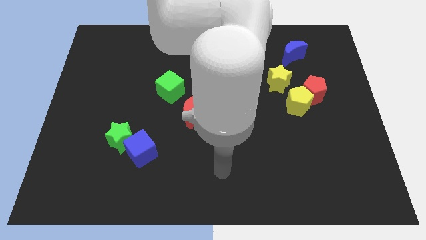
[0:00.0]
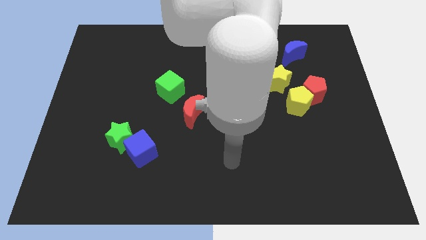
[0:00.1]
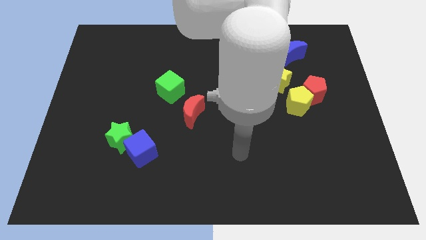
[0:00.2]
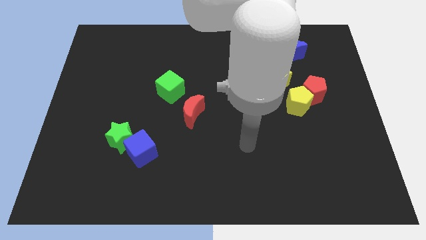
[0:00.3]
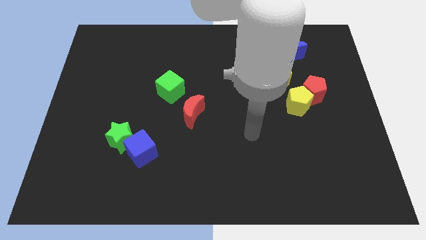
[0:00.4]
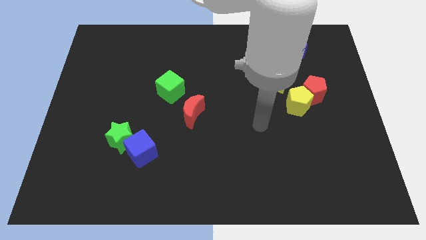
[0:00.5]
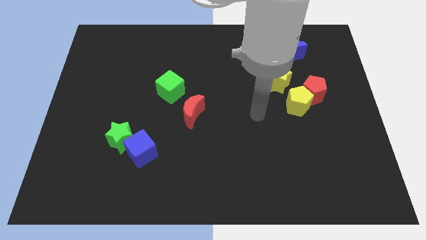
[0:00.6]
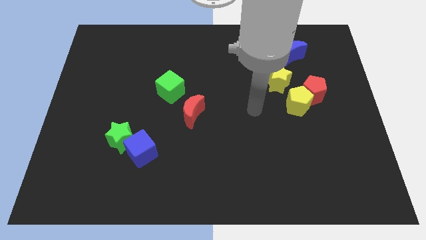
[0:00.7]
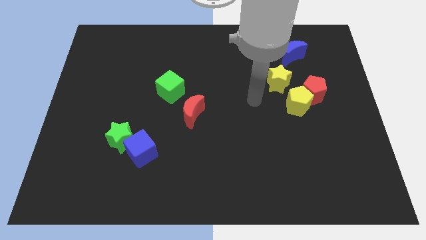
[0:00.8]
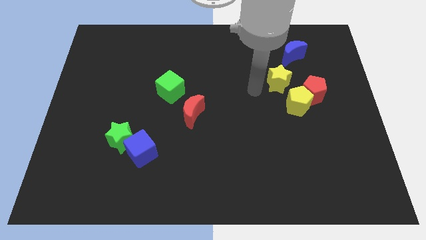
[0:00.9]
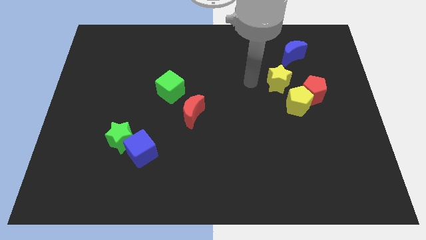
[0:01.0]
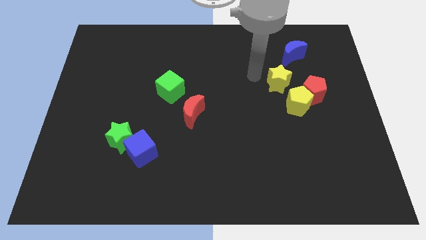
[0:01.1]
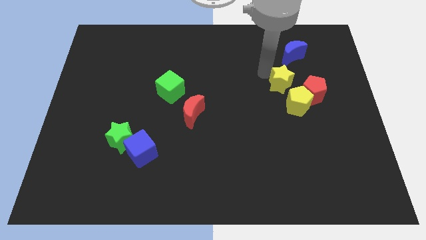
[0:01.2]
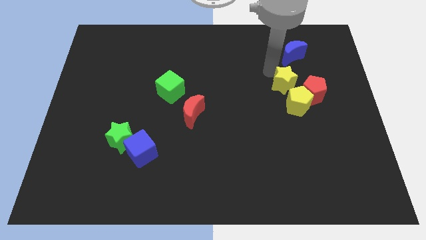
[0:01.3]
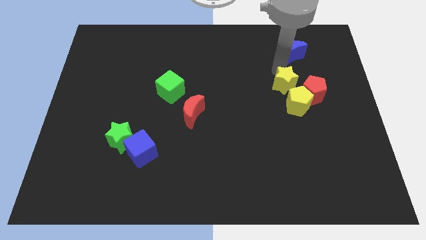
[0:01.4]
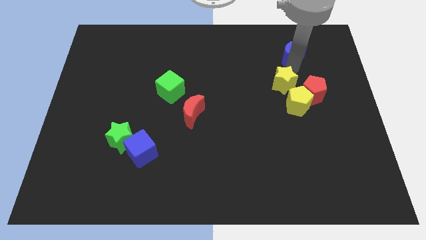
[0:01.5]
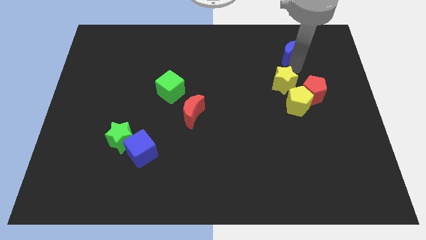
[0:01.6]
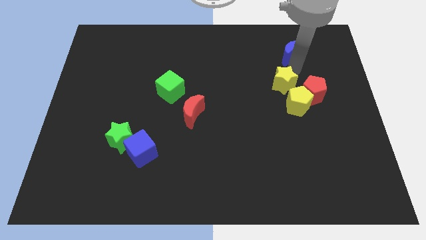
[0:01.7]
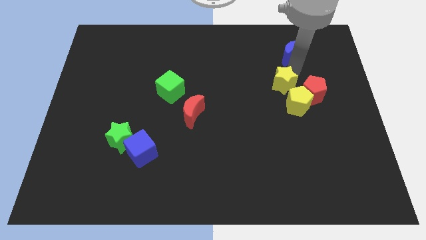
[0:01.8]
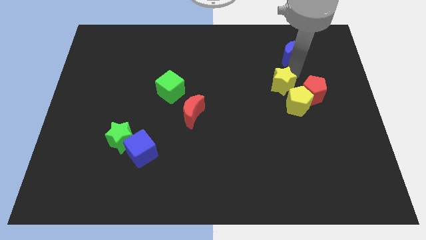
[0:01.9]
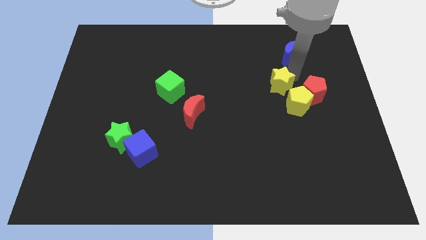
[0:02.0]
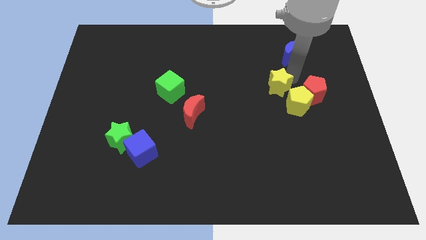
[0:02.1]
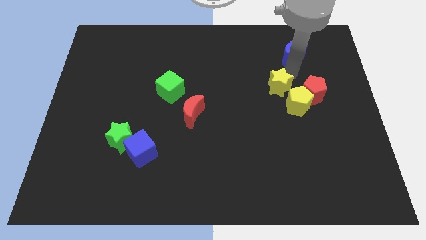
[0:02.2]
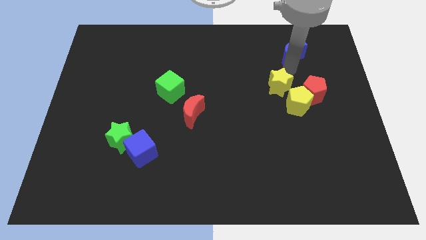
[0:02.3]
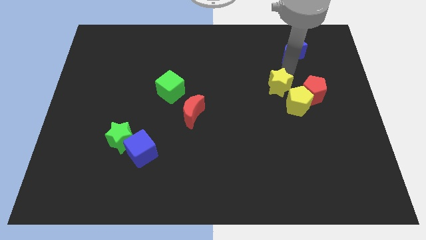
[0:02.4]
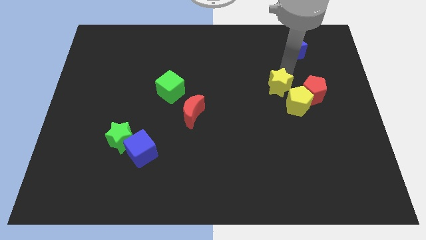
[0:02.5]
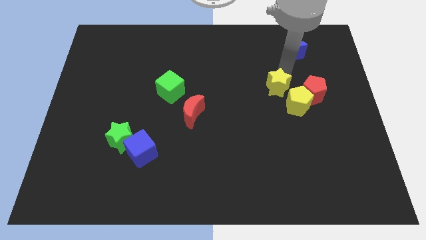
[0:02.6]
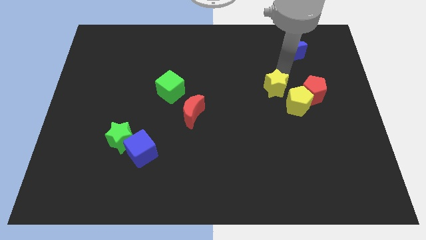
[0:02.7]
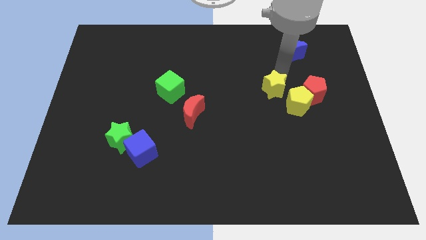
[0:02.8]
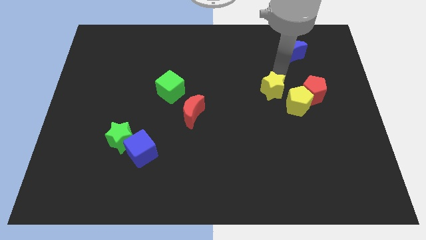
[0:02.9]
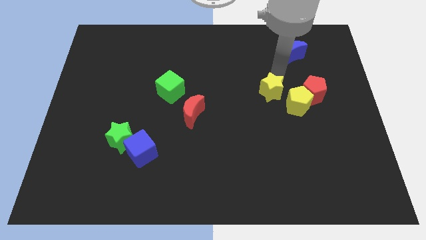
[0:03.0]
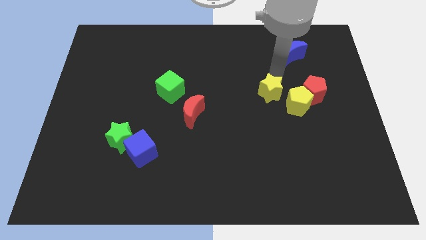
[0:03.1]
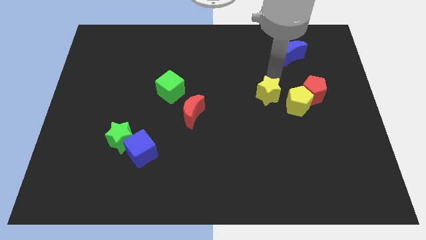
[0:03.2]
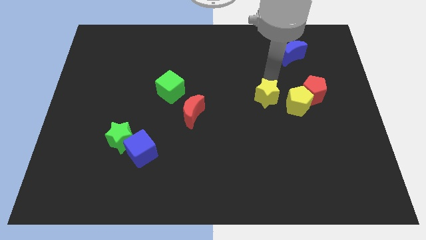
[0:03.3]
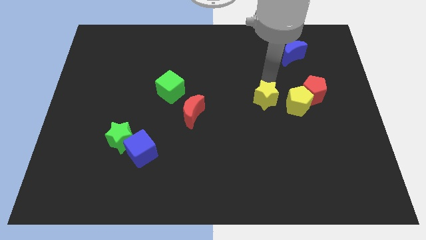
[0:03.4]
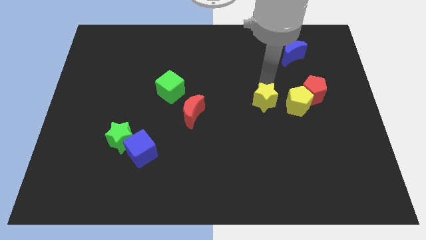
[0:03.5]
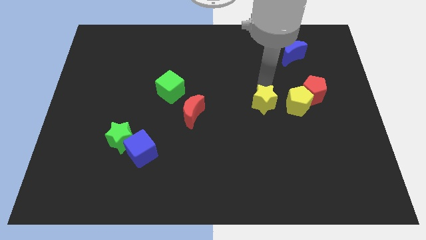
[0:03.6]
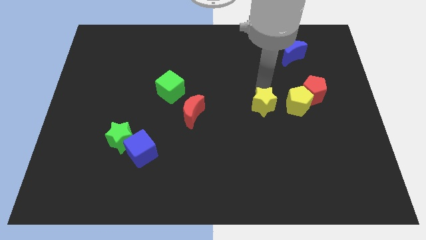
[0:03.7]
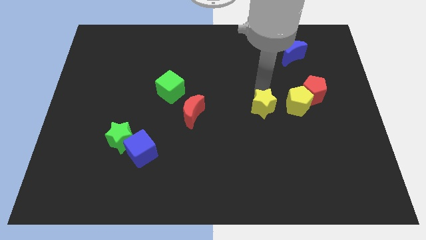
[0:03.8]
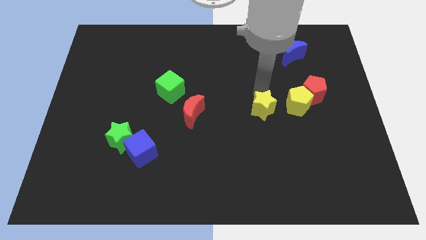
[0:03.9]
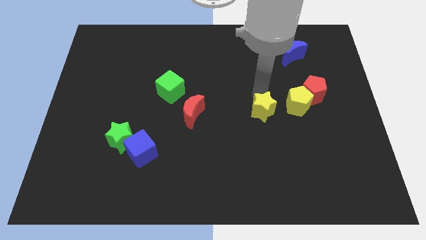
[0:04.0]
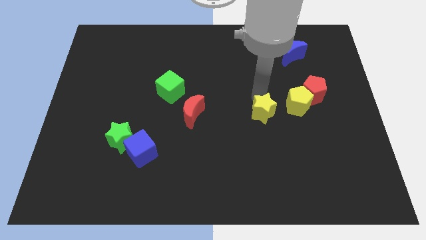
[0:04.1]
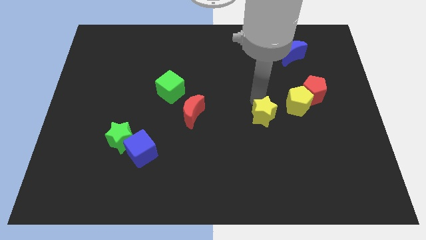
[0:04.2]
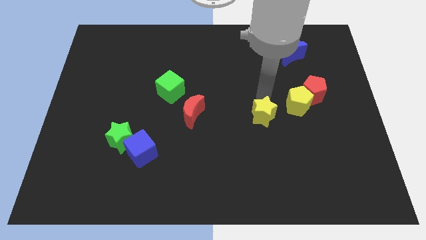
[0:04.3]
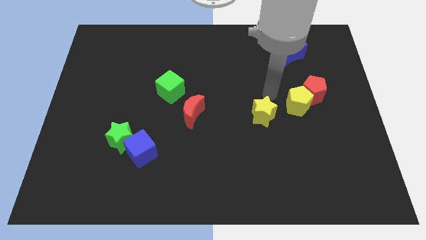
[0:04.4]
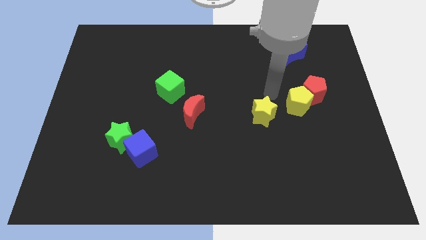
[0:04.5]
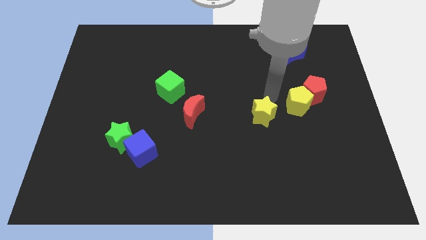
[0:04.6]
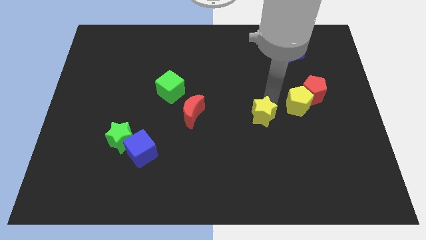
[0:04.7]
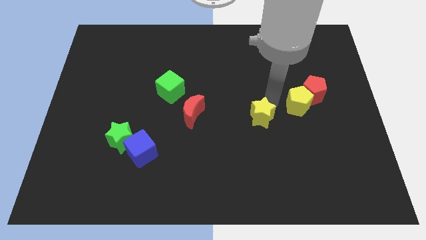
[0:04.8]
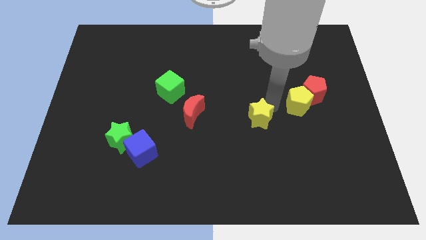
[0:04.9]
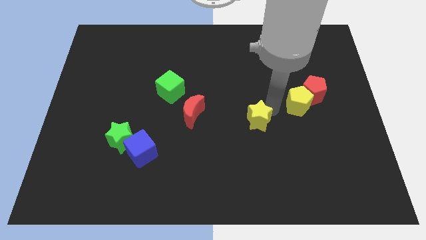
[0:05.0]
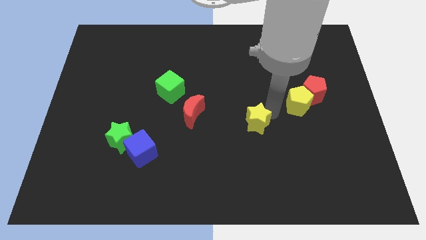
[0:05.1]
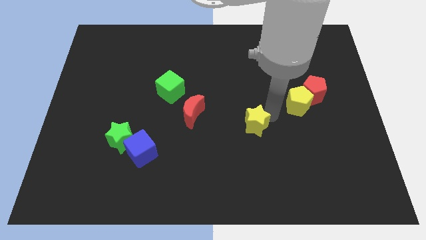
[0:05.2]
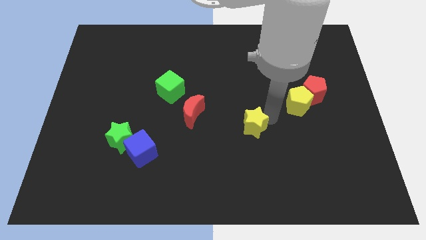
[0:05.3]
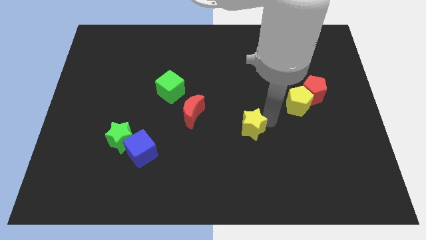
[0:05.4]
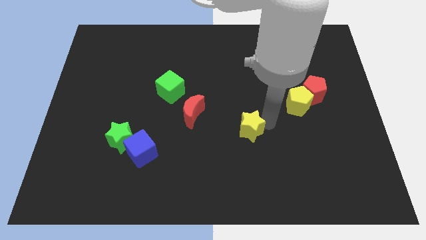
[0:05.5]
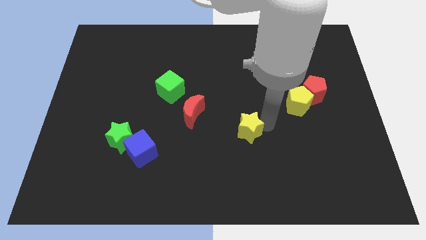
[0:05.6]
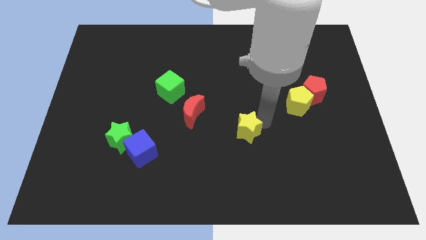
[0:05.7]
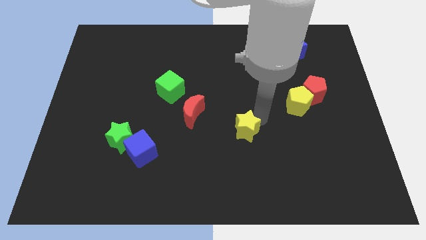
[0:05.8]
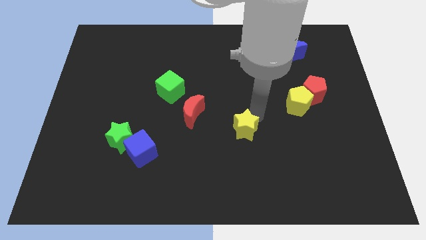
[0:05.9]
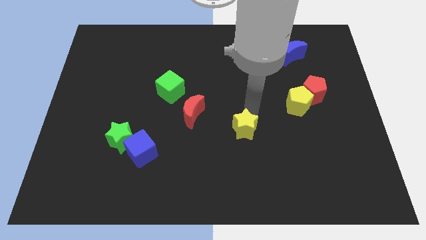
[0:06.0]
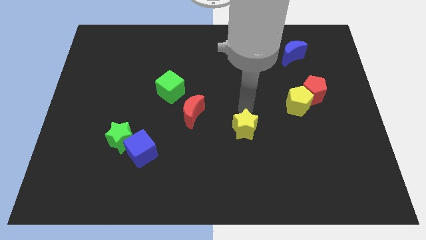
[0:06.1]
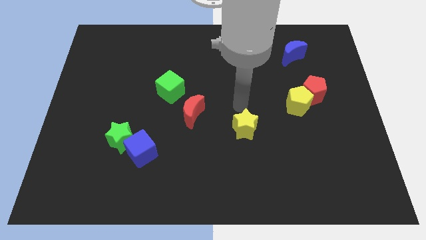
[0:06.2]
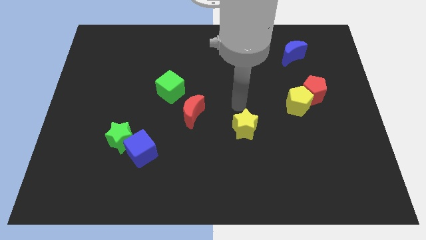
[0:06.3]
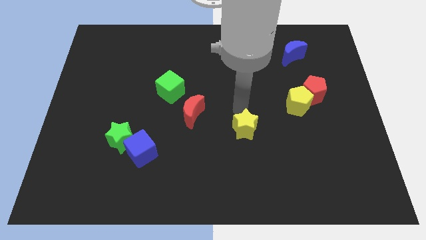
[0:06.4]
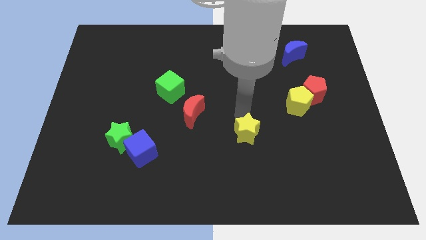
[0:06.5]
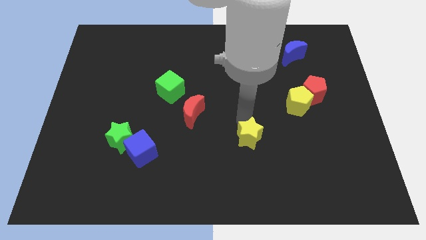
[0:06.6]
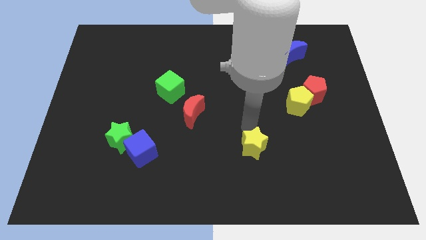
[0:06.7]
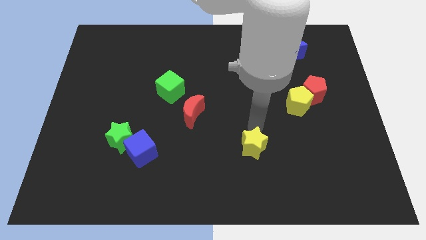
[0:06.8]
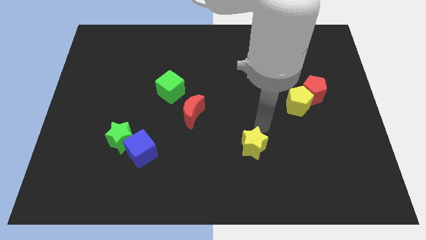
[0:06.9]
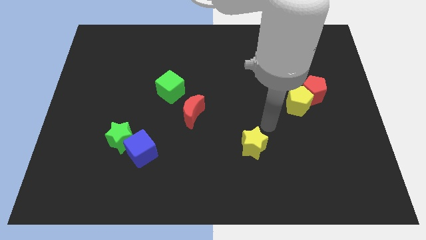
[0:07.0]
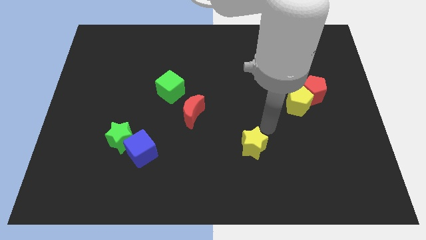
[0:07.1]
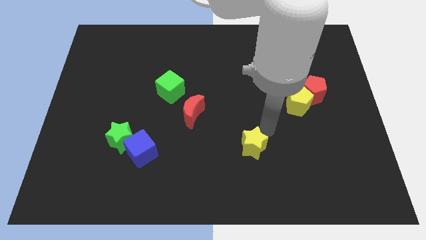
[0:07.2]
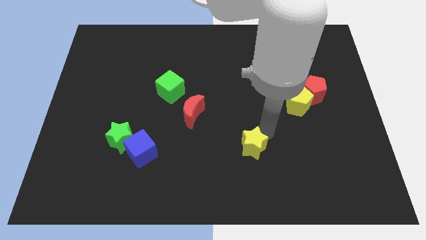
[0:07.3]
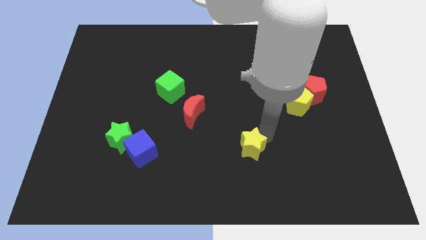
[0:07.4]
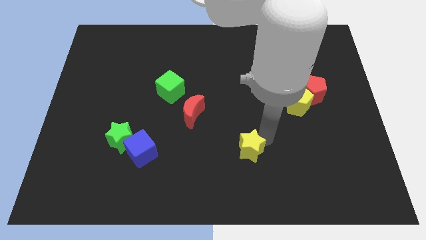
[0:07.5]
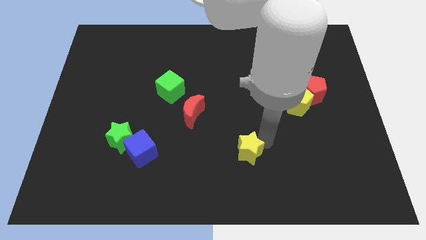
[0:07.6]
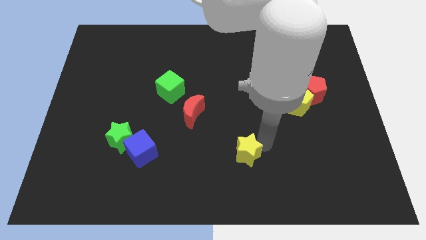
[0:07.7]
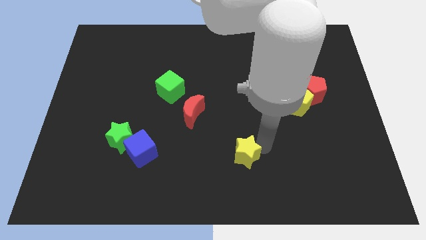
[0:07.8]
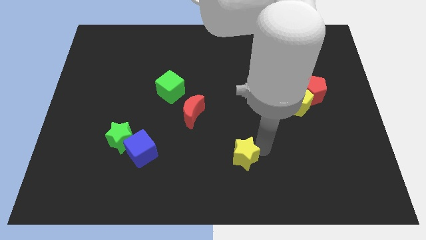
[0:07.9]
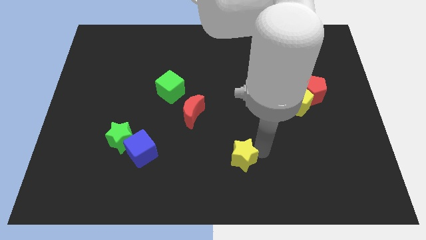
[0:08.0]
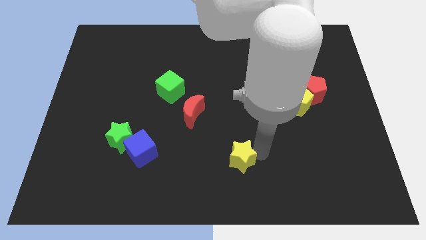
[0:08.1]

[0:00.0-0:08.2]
put the yellow star to the bottom
